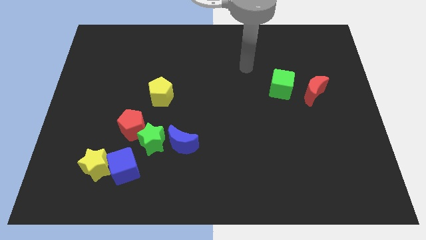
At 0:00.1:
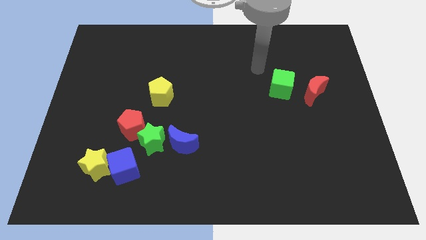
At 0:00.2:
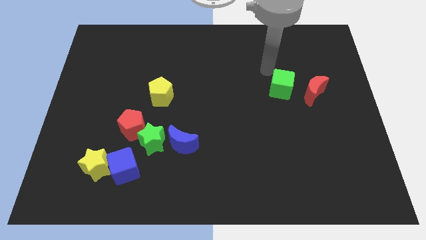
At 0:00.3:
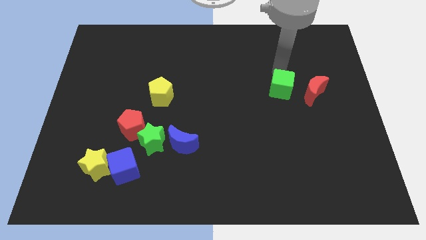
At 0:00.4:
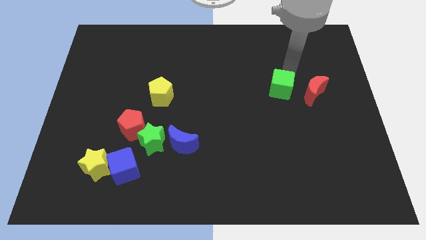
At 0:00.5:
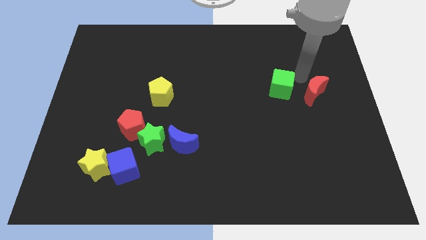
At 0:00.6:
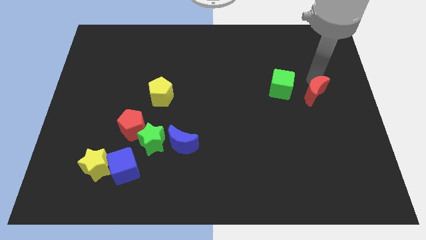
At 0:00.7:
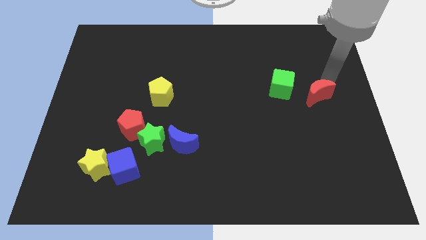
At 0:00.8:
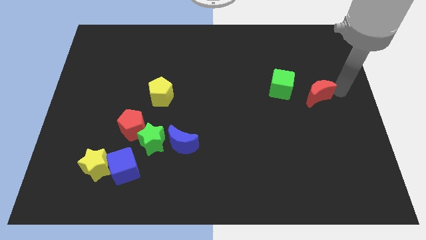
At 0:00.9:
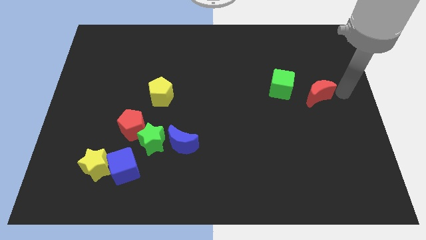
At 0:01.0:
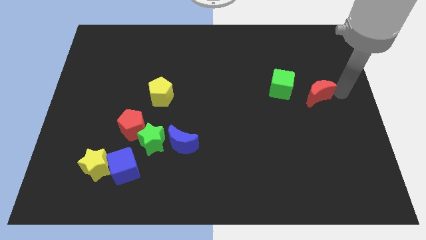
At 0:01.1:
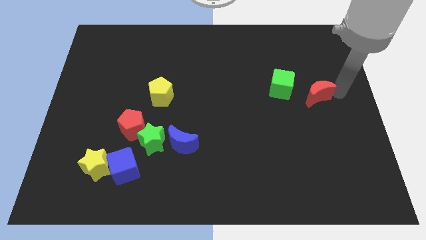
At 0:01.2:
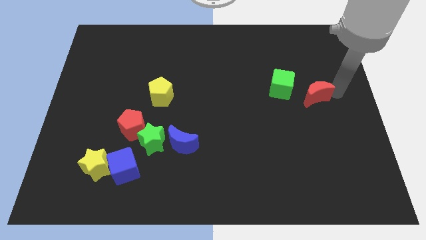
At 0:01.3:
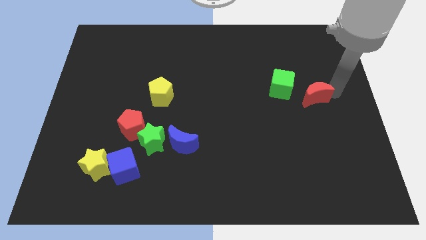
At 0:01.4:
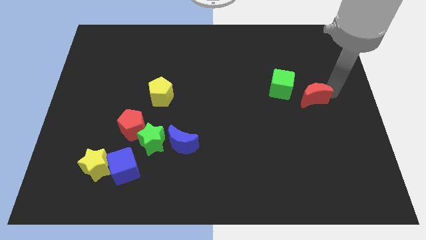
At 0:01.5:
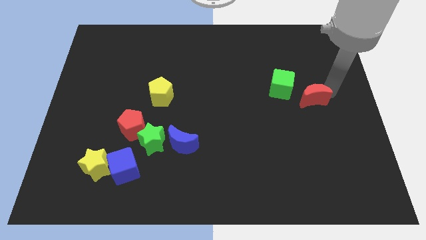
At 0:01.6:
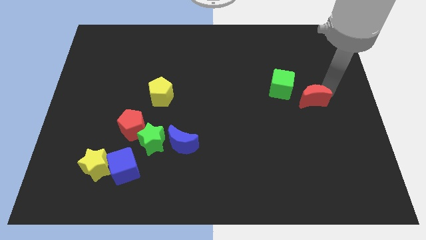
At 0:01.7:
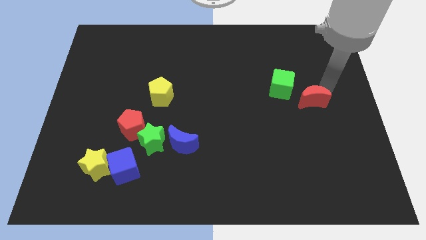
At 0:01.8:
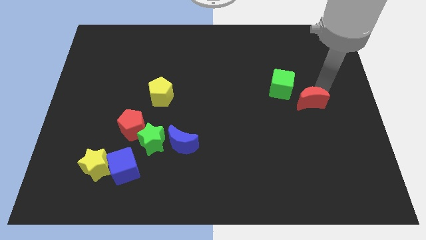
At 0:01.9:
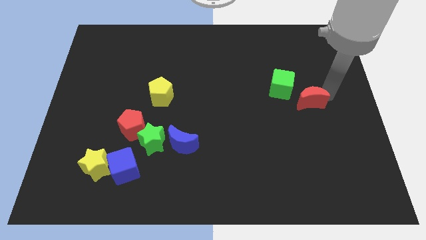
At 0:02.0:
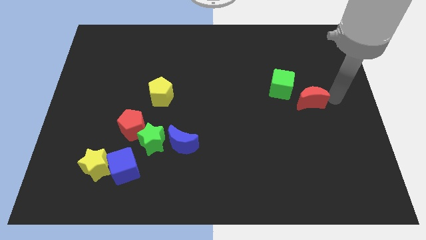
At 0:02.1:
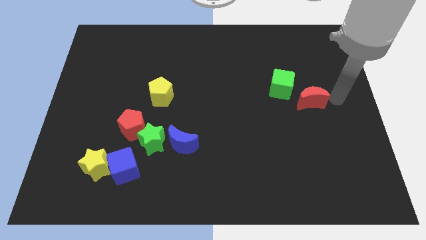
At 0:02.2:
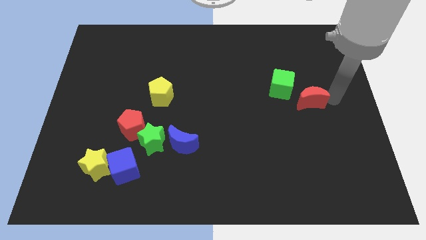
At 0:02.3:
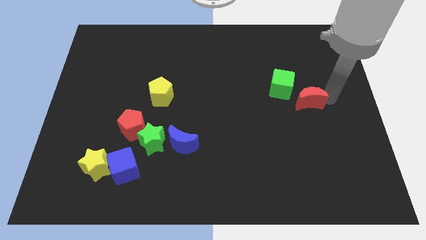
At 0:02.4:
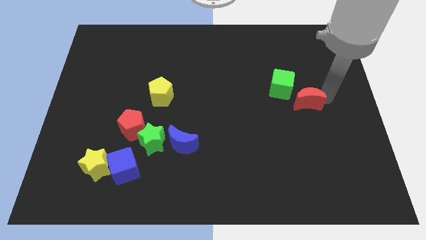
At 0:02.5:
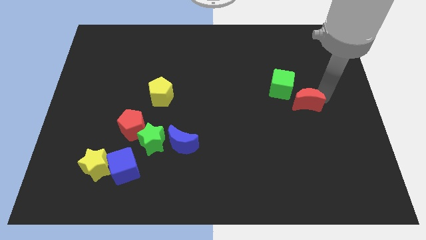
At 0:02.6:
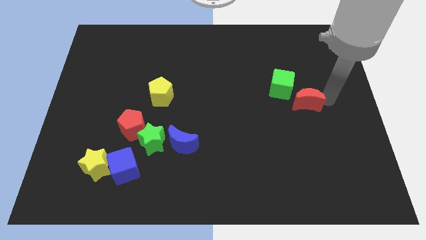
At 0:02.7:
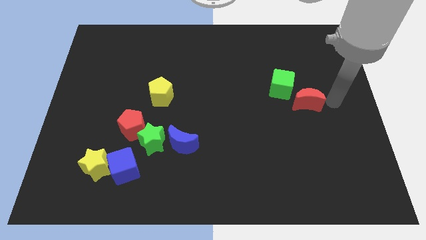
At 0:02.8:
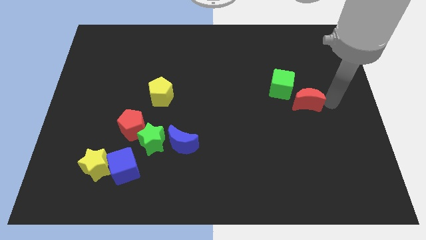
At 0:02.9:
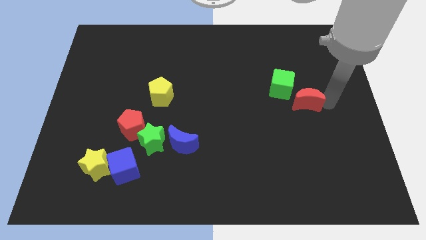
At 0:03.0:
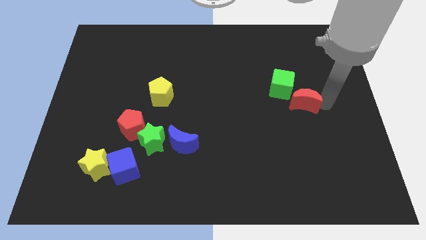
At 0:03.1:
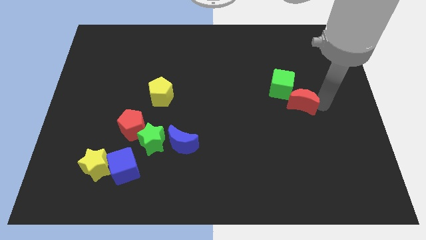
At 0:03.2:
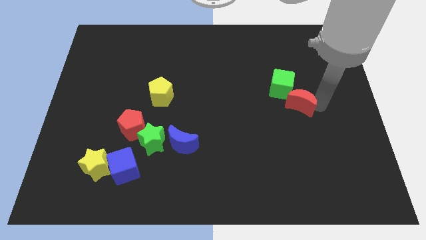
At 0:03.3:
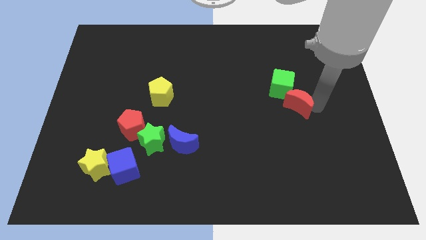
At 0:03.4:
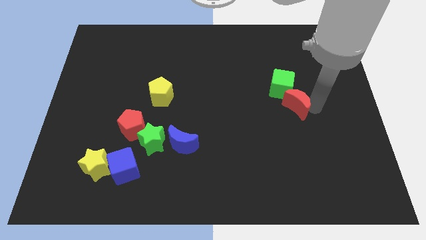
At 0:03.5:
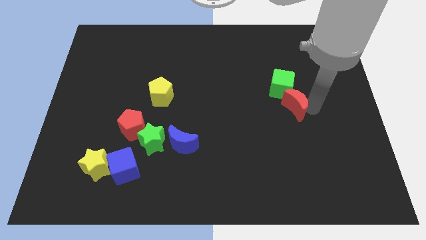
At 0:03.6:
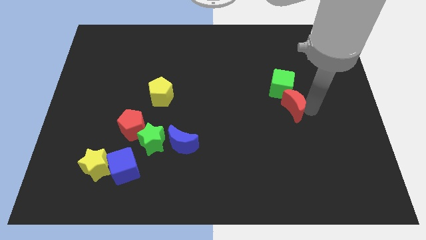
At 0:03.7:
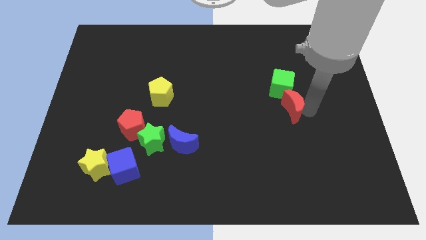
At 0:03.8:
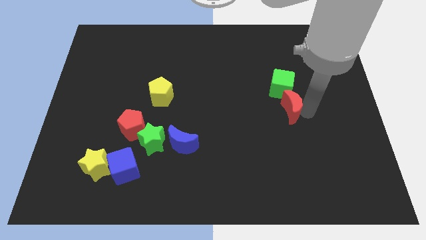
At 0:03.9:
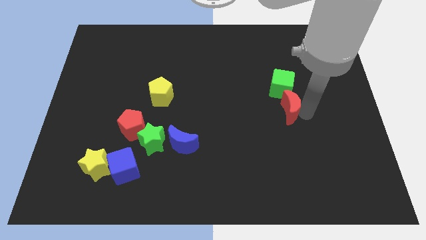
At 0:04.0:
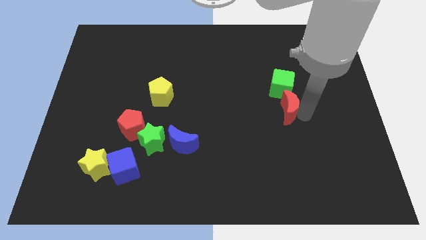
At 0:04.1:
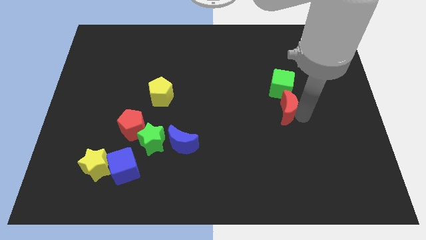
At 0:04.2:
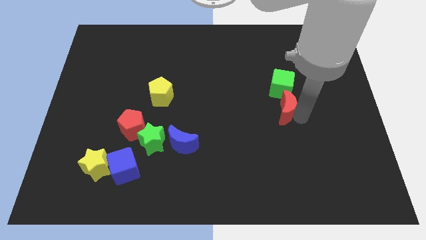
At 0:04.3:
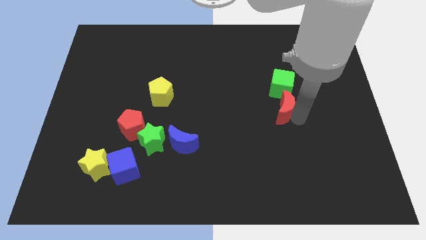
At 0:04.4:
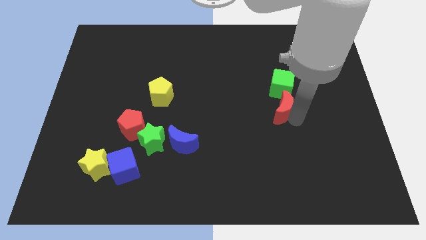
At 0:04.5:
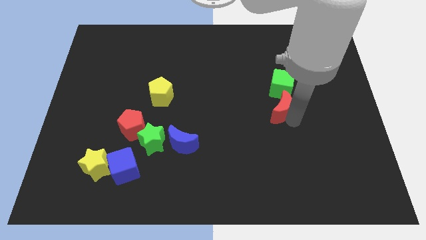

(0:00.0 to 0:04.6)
slightly move the red moon left

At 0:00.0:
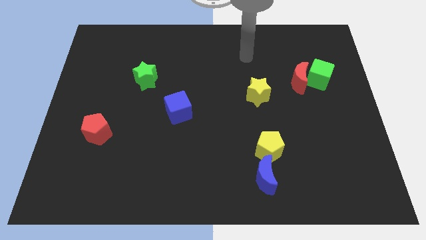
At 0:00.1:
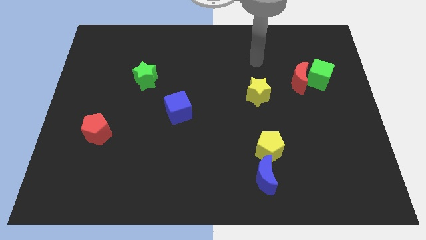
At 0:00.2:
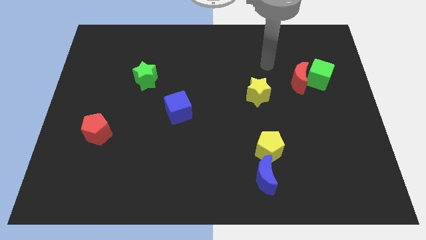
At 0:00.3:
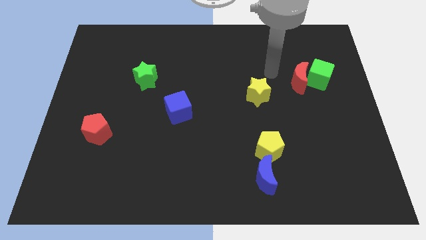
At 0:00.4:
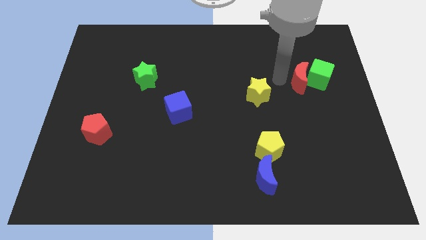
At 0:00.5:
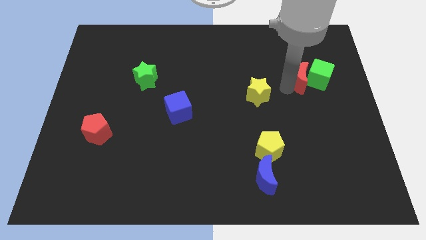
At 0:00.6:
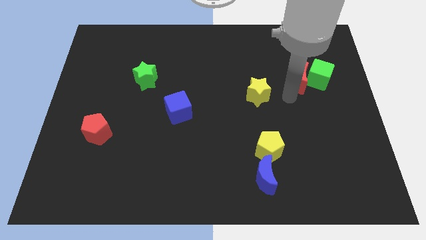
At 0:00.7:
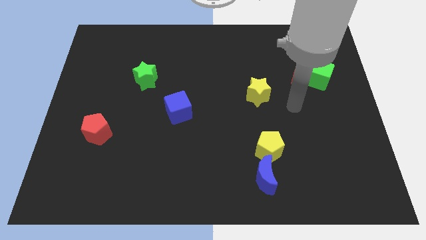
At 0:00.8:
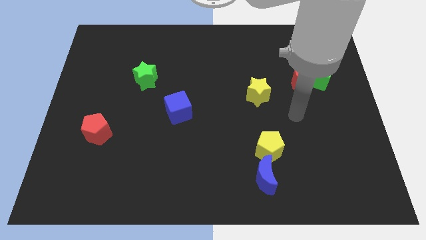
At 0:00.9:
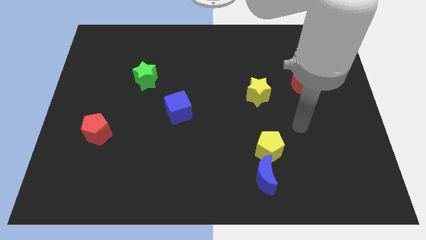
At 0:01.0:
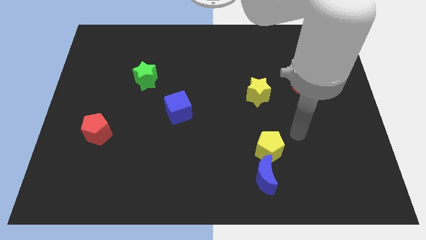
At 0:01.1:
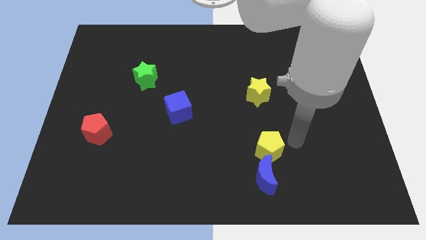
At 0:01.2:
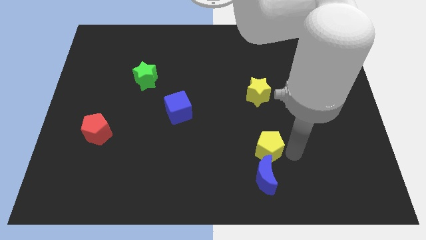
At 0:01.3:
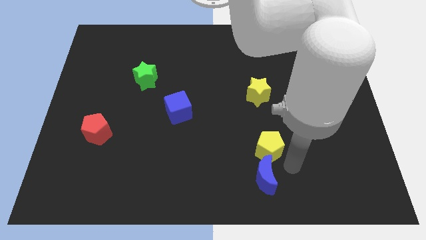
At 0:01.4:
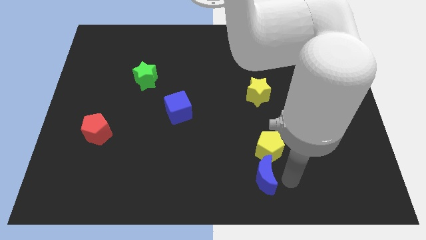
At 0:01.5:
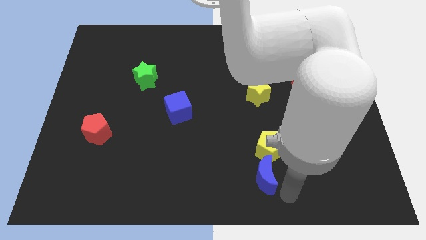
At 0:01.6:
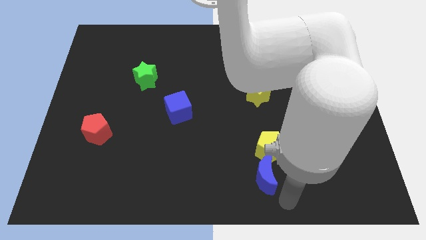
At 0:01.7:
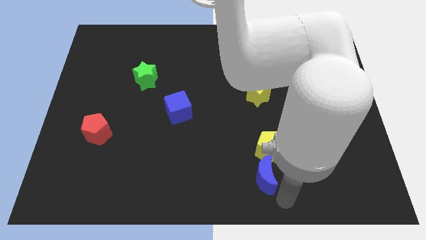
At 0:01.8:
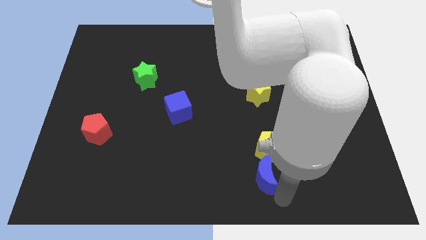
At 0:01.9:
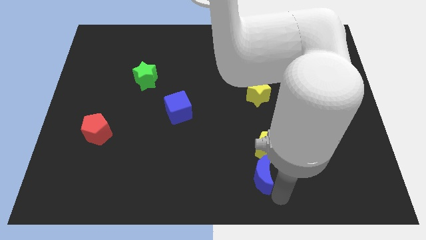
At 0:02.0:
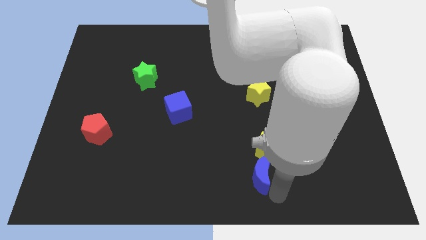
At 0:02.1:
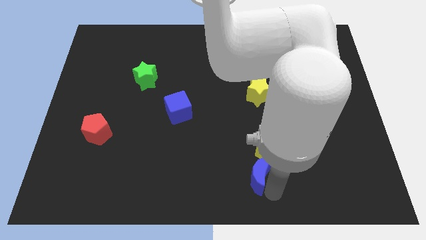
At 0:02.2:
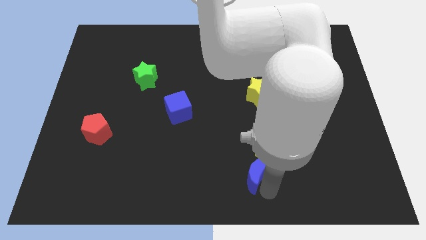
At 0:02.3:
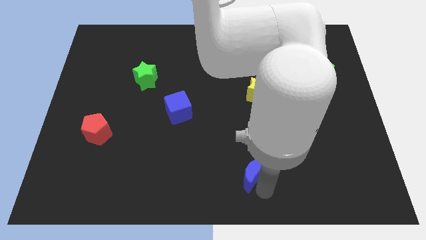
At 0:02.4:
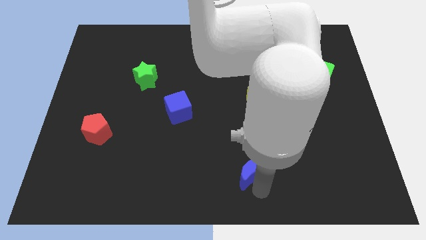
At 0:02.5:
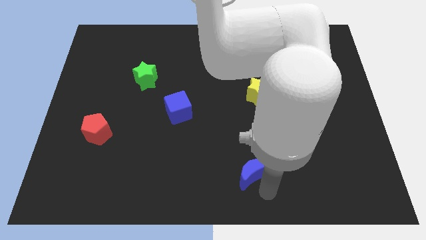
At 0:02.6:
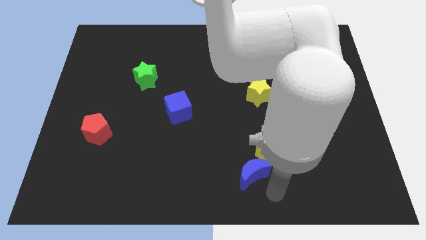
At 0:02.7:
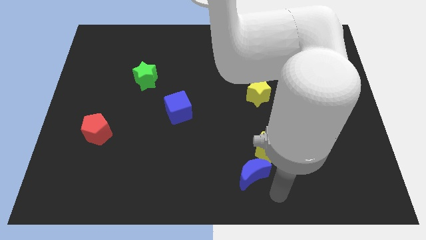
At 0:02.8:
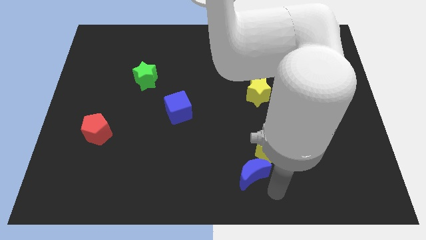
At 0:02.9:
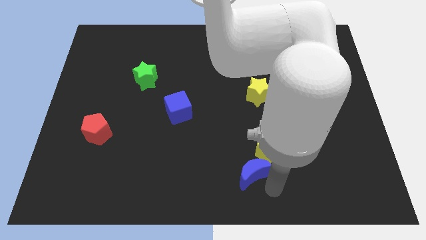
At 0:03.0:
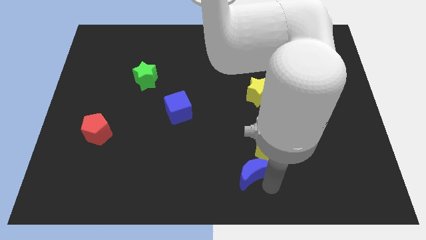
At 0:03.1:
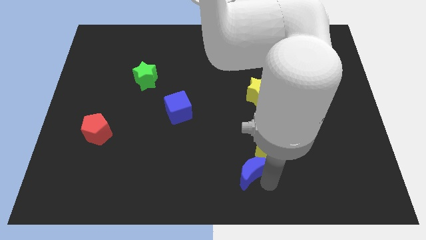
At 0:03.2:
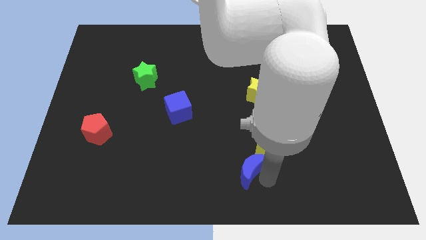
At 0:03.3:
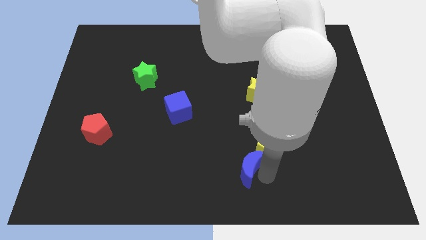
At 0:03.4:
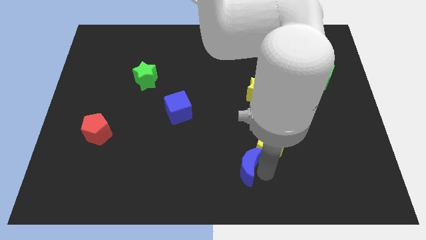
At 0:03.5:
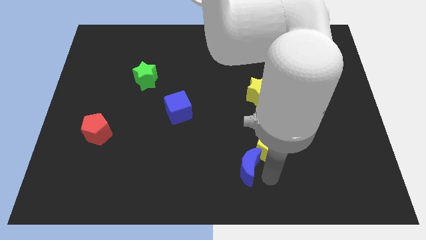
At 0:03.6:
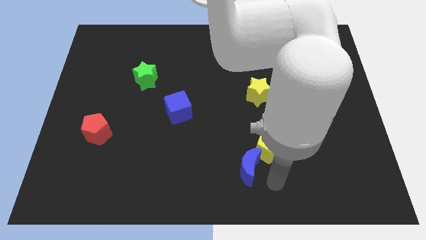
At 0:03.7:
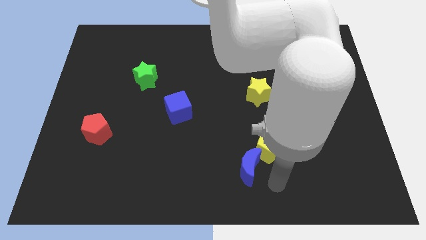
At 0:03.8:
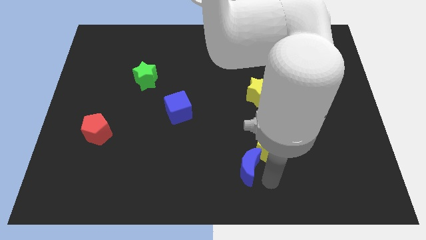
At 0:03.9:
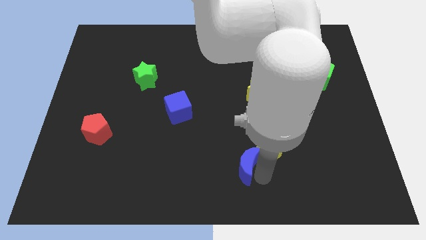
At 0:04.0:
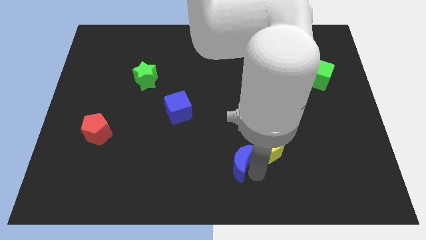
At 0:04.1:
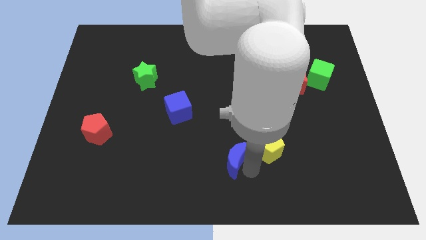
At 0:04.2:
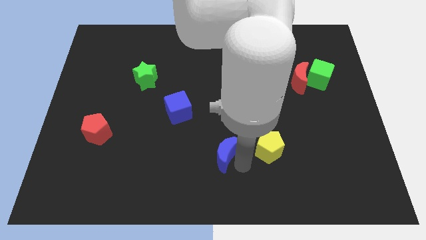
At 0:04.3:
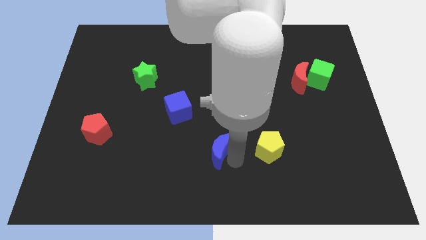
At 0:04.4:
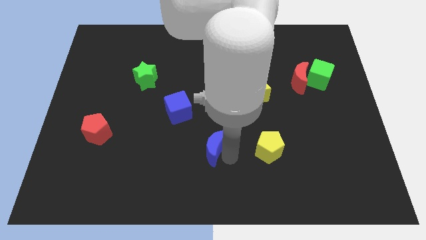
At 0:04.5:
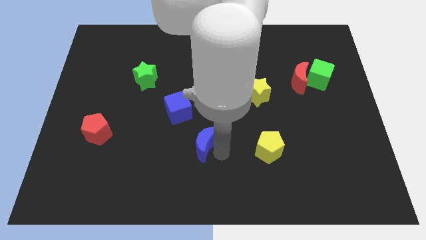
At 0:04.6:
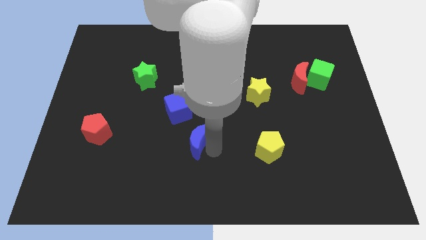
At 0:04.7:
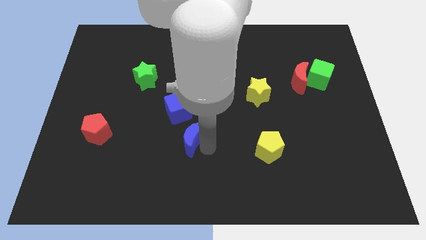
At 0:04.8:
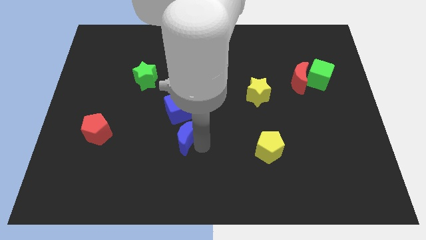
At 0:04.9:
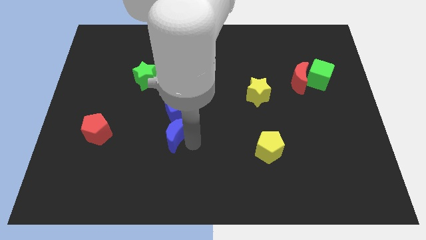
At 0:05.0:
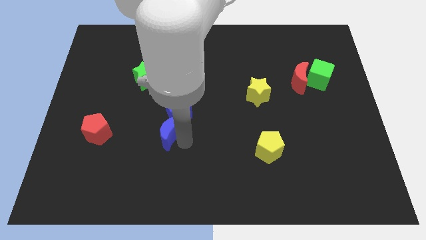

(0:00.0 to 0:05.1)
slide the blue moon upwards and left diagonally
